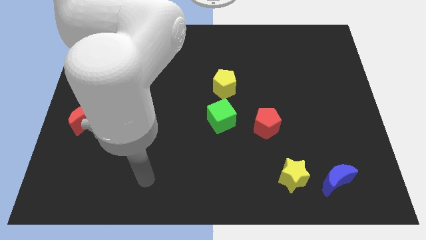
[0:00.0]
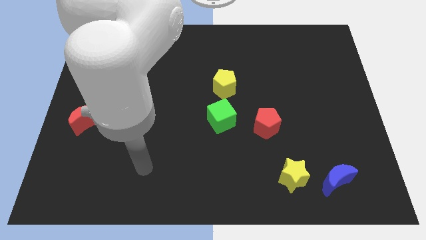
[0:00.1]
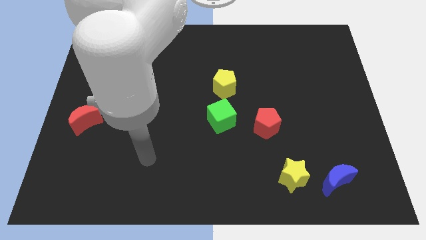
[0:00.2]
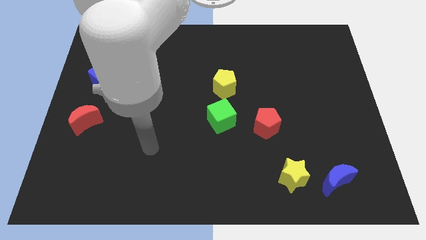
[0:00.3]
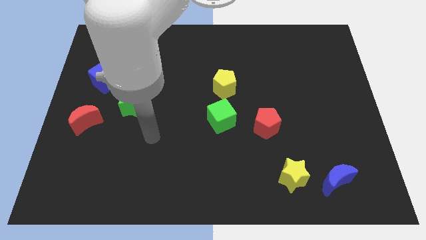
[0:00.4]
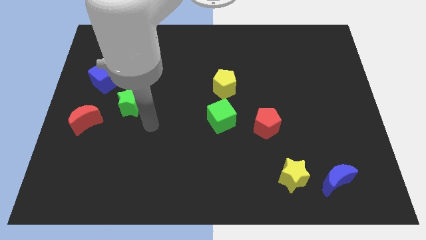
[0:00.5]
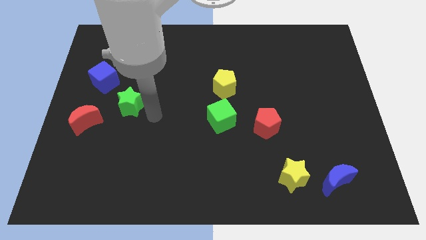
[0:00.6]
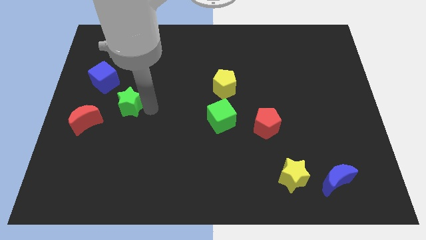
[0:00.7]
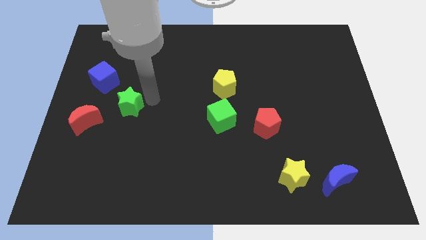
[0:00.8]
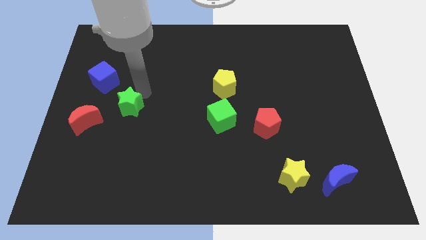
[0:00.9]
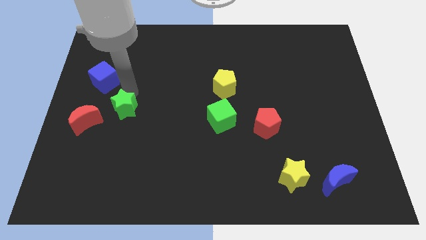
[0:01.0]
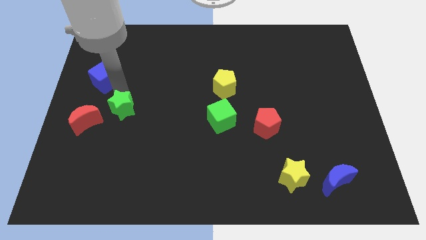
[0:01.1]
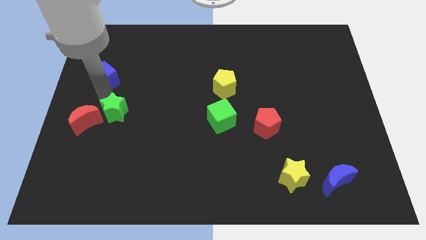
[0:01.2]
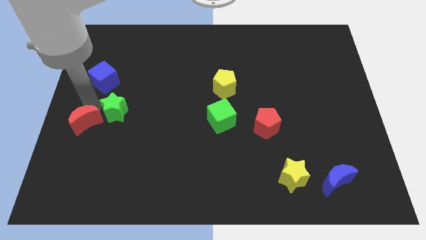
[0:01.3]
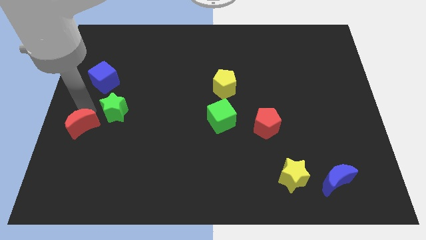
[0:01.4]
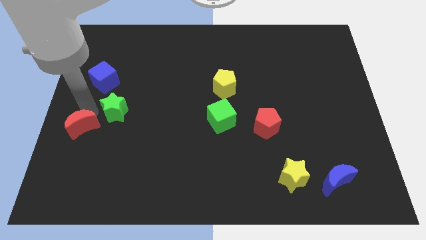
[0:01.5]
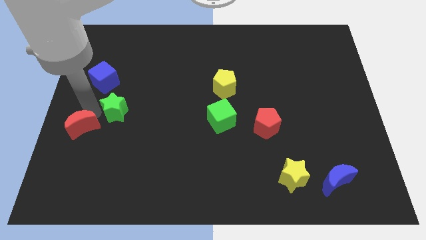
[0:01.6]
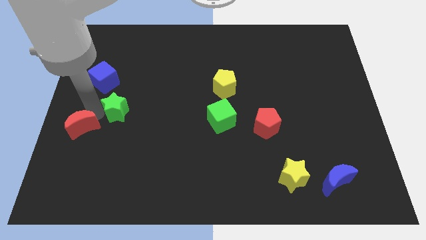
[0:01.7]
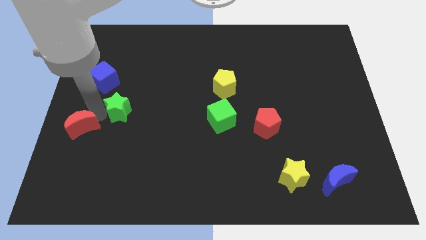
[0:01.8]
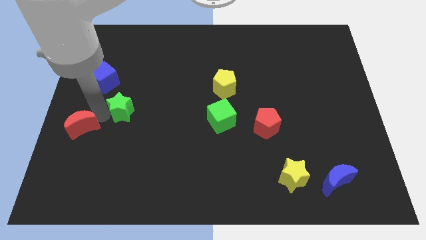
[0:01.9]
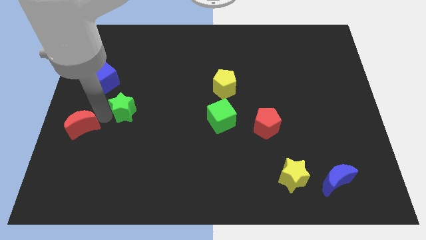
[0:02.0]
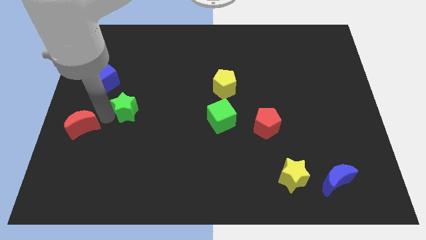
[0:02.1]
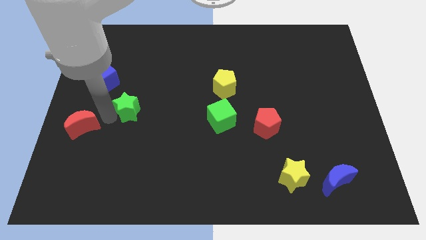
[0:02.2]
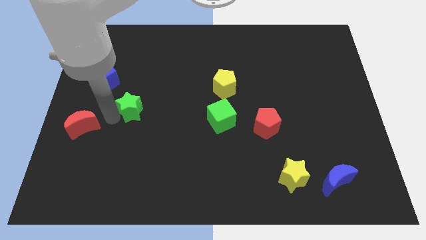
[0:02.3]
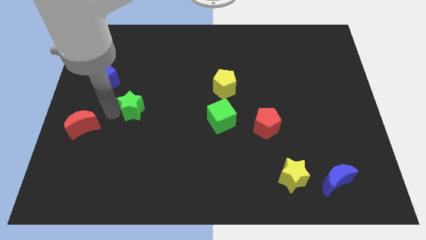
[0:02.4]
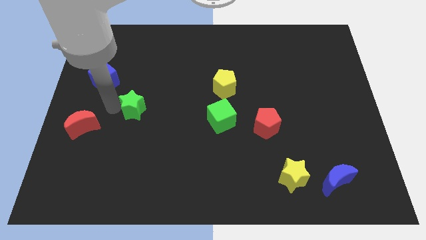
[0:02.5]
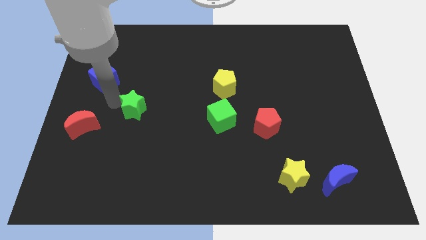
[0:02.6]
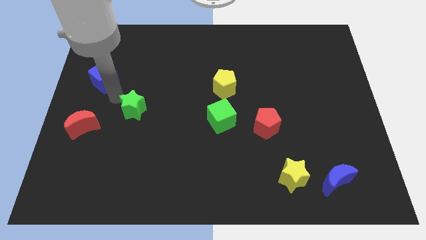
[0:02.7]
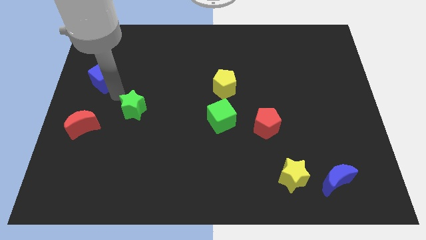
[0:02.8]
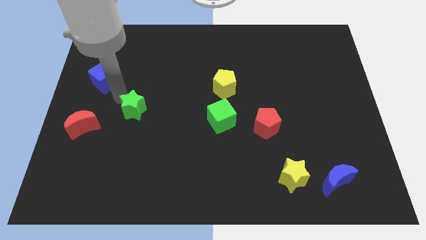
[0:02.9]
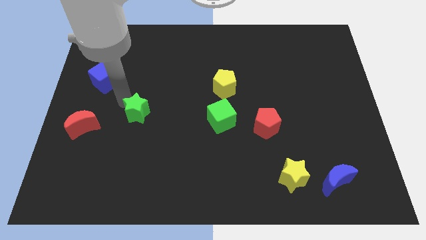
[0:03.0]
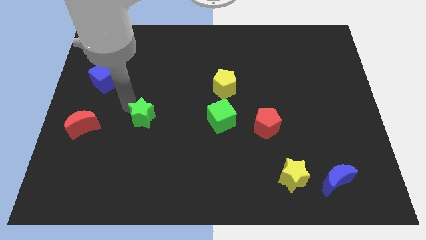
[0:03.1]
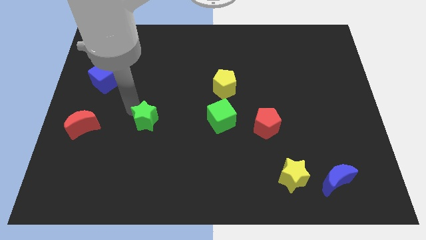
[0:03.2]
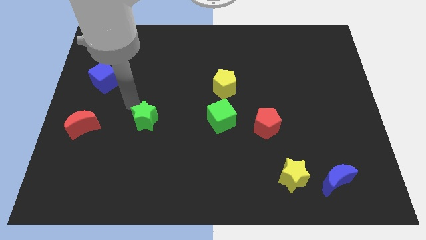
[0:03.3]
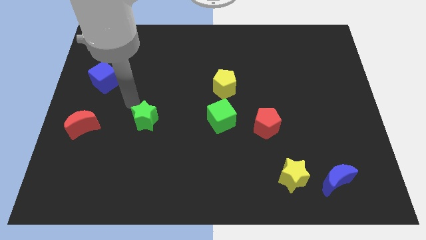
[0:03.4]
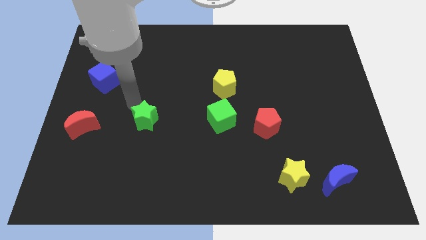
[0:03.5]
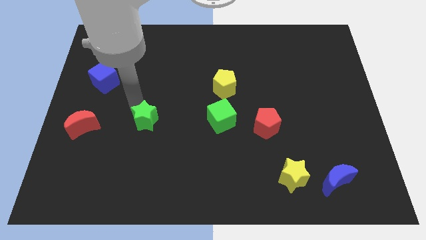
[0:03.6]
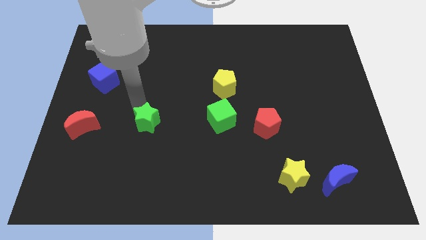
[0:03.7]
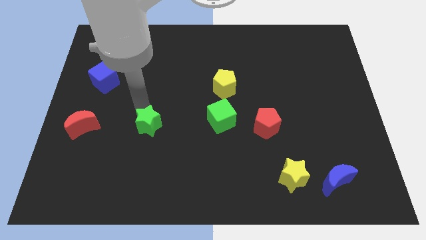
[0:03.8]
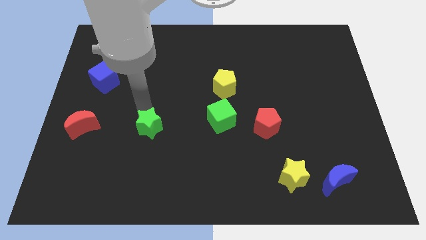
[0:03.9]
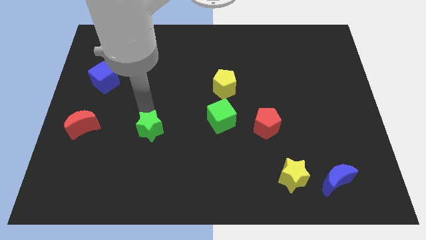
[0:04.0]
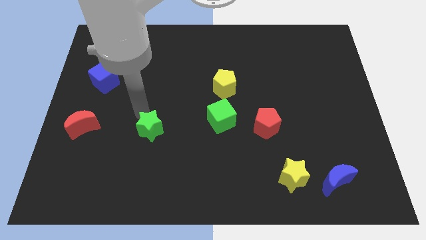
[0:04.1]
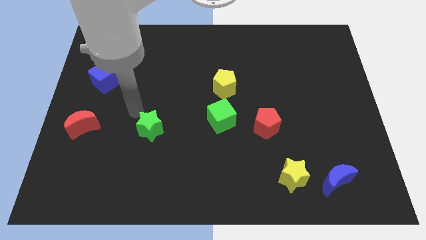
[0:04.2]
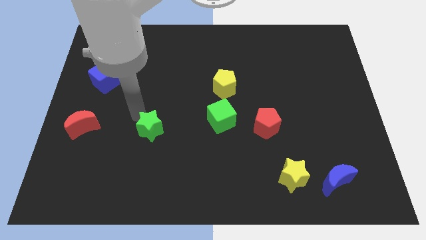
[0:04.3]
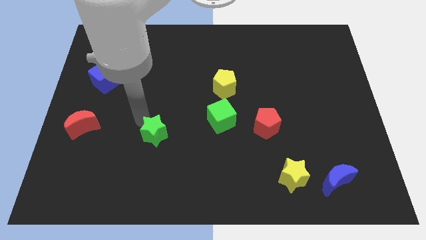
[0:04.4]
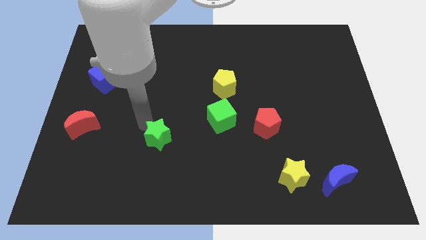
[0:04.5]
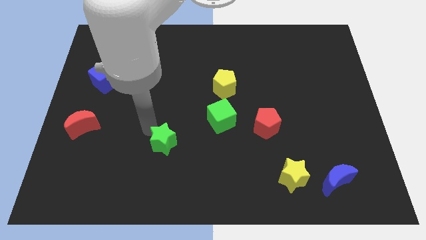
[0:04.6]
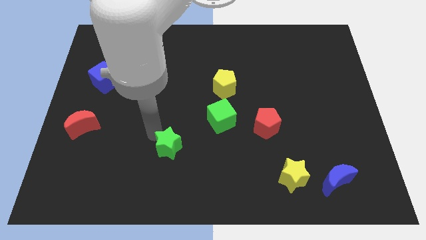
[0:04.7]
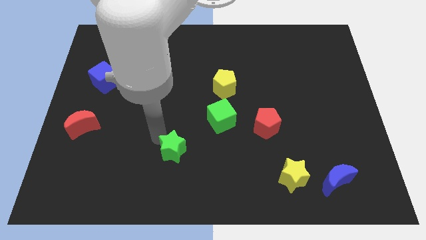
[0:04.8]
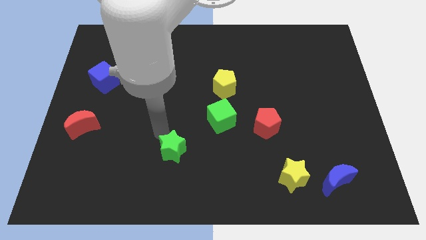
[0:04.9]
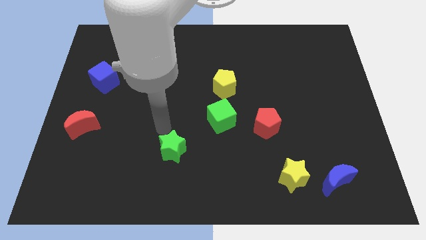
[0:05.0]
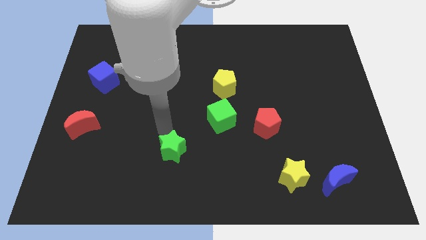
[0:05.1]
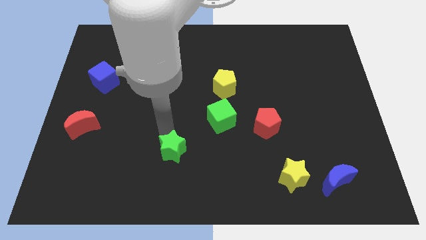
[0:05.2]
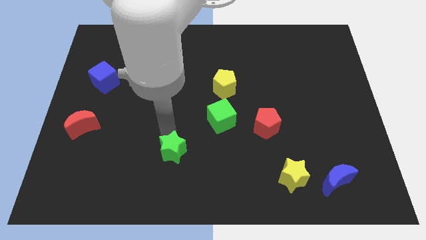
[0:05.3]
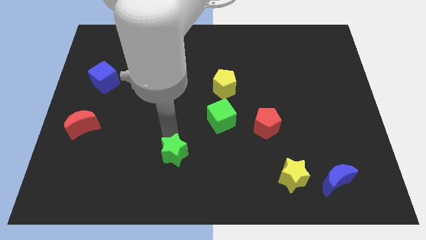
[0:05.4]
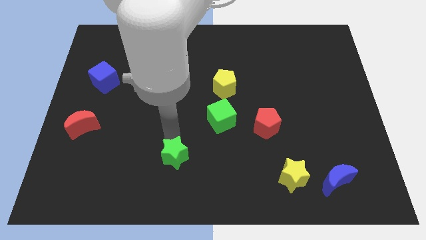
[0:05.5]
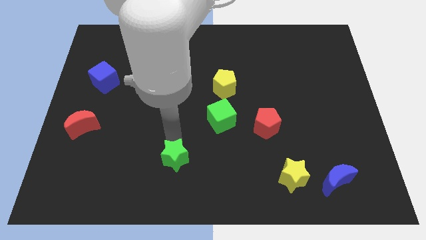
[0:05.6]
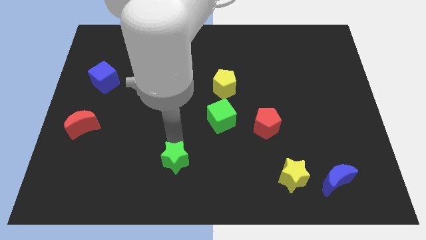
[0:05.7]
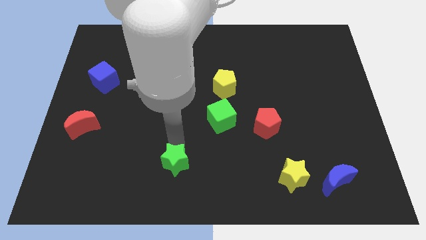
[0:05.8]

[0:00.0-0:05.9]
push the green star to the bottom
